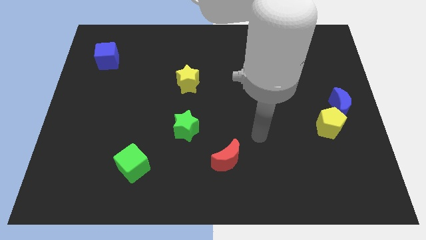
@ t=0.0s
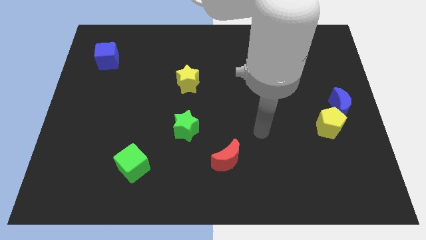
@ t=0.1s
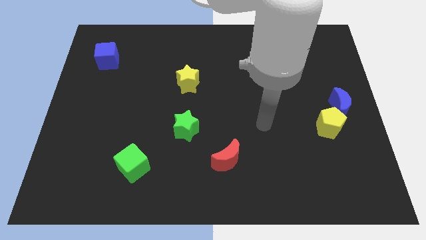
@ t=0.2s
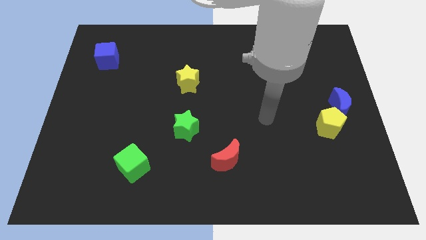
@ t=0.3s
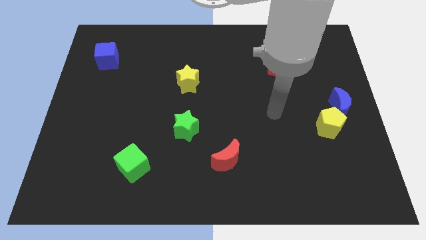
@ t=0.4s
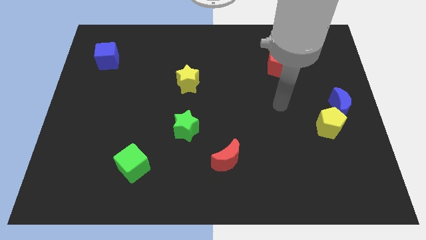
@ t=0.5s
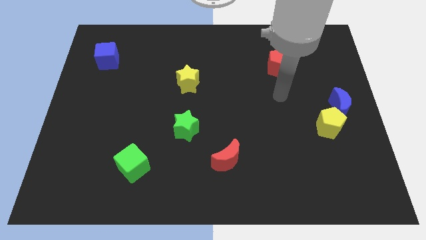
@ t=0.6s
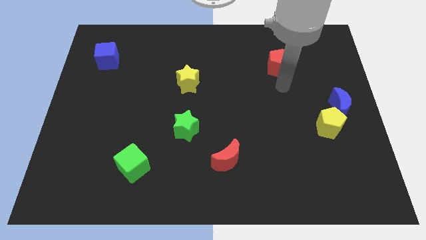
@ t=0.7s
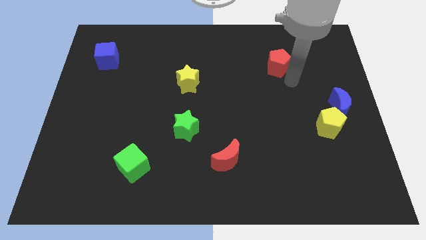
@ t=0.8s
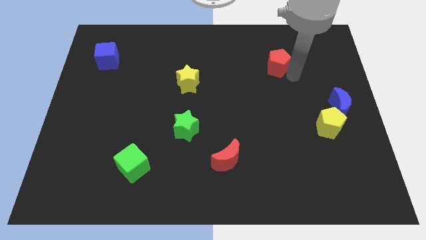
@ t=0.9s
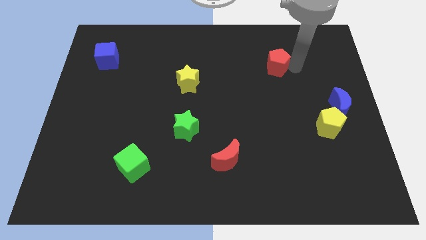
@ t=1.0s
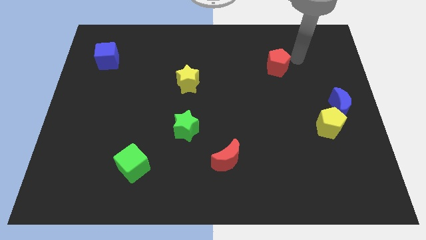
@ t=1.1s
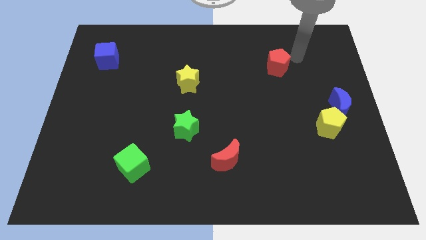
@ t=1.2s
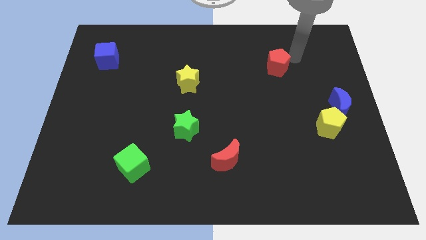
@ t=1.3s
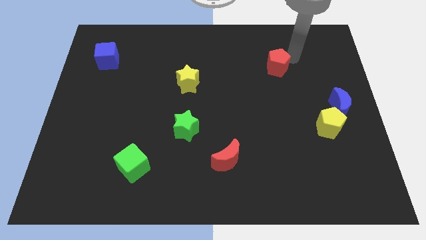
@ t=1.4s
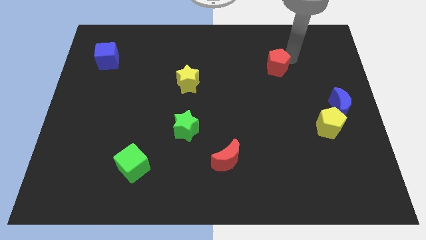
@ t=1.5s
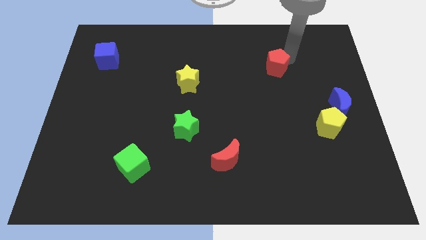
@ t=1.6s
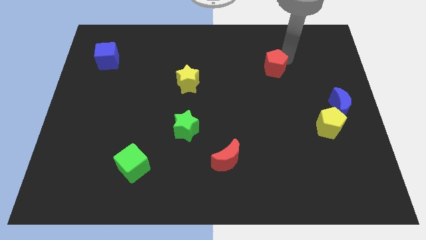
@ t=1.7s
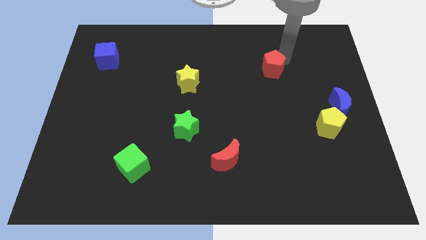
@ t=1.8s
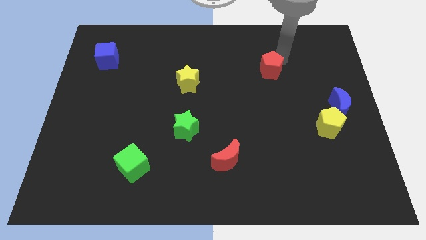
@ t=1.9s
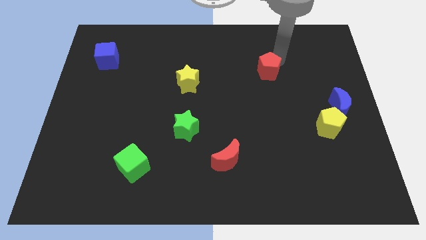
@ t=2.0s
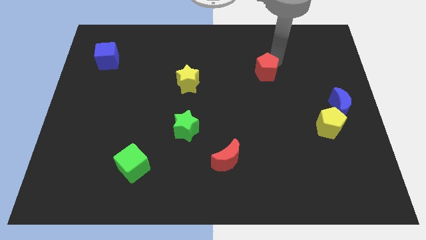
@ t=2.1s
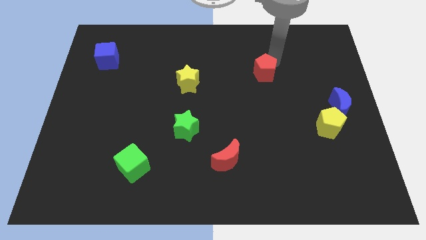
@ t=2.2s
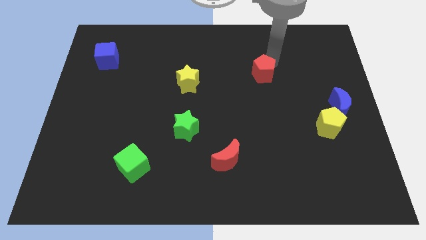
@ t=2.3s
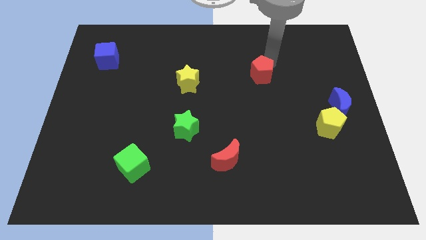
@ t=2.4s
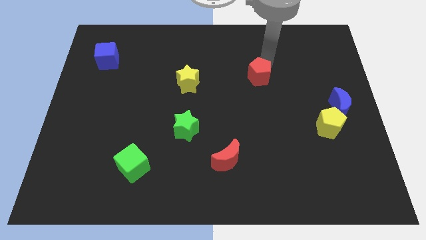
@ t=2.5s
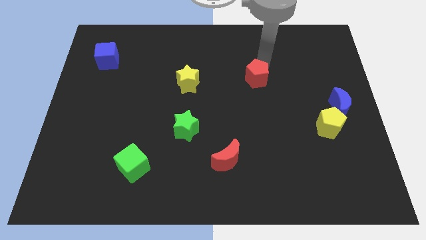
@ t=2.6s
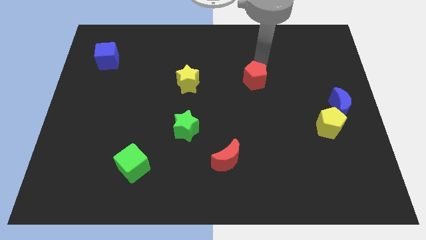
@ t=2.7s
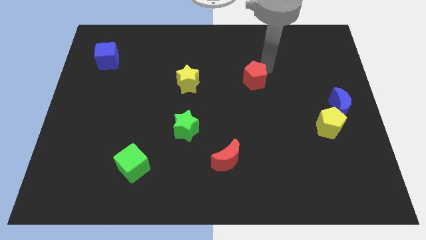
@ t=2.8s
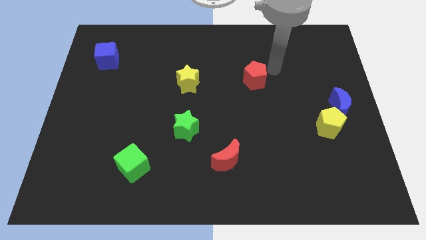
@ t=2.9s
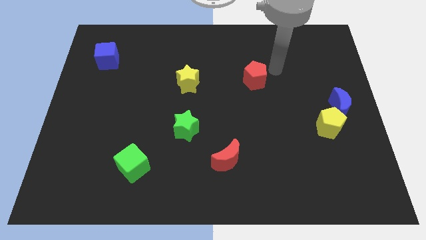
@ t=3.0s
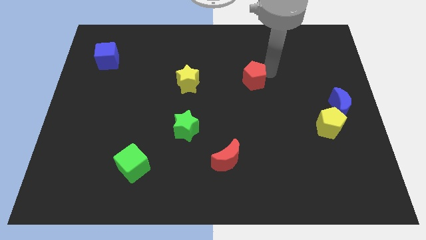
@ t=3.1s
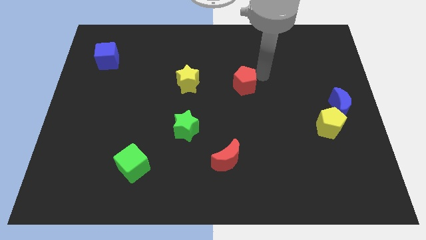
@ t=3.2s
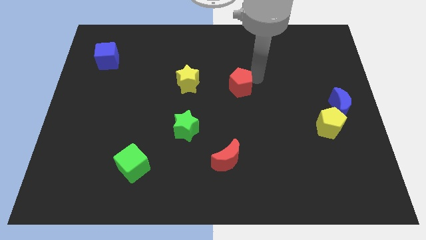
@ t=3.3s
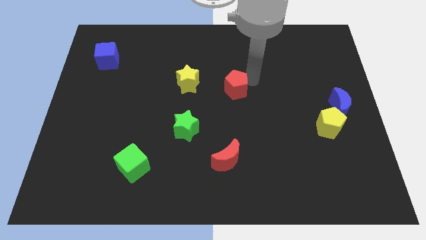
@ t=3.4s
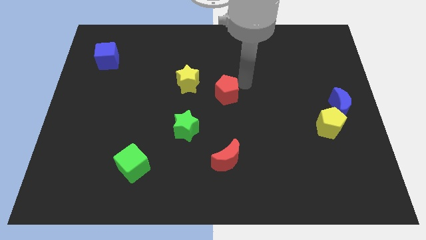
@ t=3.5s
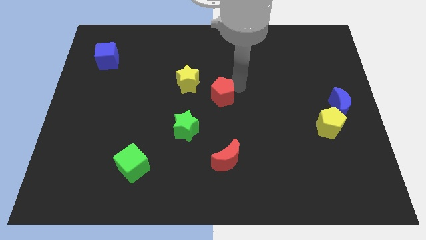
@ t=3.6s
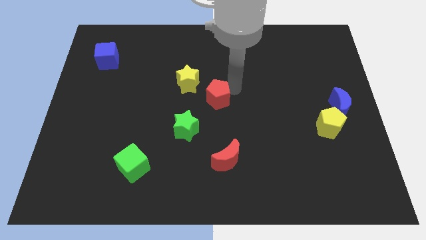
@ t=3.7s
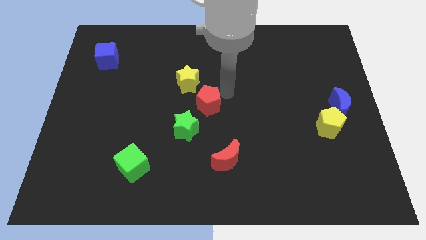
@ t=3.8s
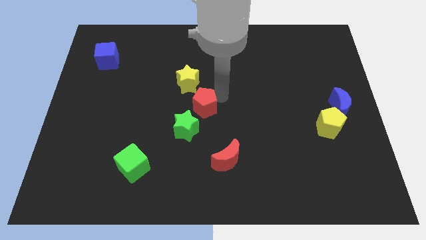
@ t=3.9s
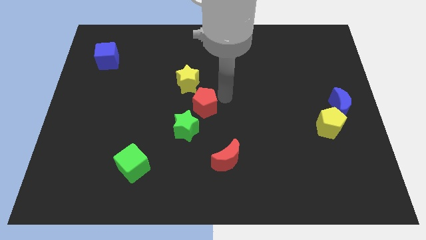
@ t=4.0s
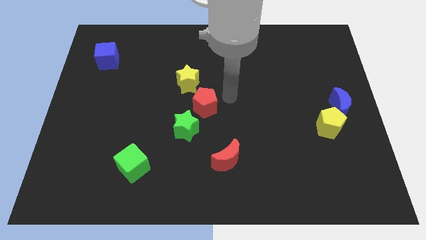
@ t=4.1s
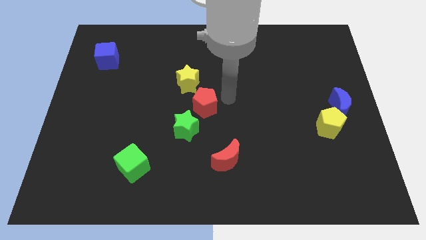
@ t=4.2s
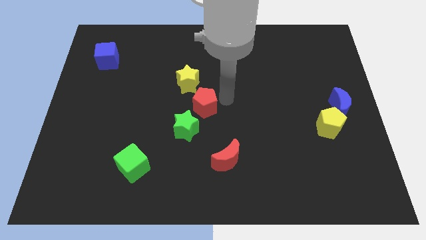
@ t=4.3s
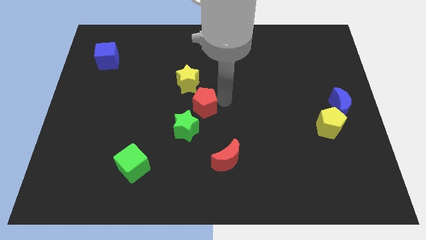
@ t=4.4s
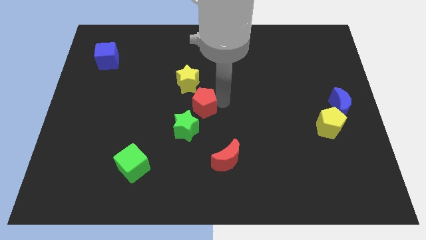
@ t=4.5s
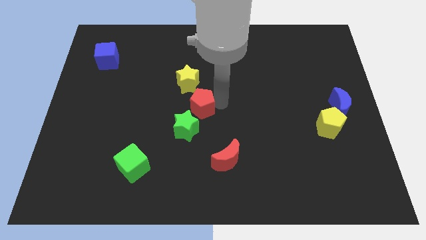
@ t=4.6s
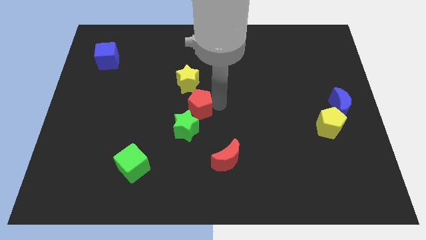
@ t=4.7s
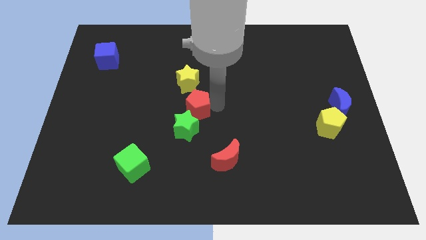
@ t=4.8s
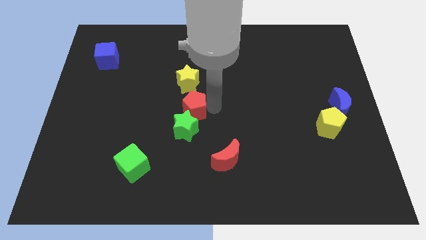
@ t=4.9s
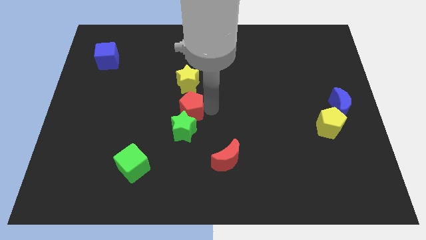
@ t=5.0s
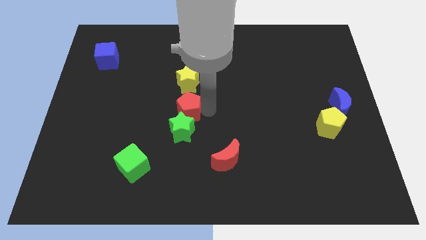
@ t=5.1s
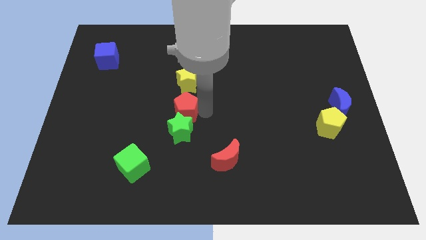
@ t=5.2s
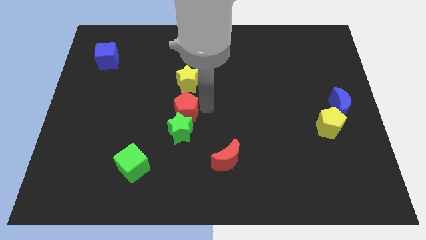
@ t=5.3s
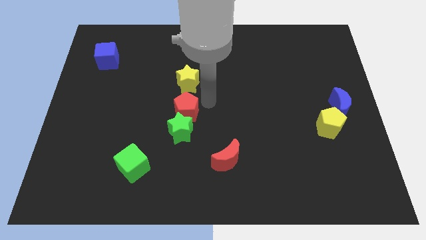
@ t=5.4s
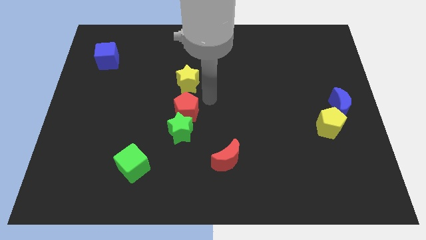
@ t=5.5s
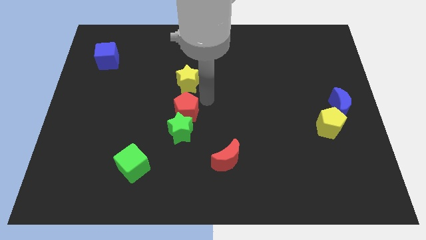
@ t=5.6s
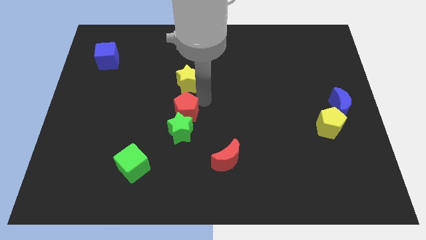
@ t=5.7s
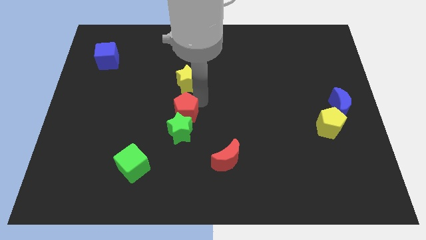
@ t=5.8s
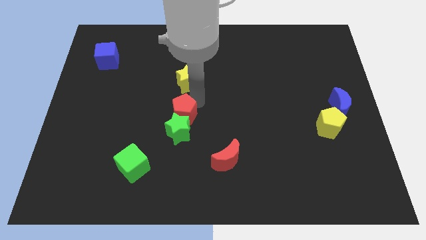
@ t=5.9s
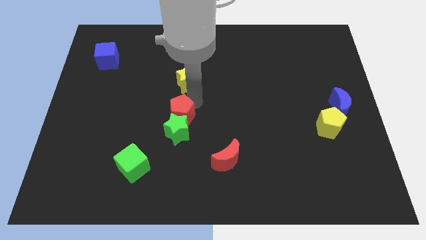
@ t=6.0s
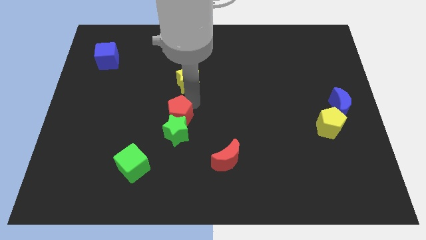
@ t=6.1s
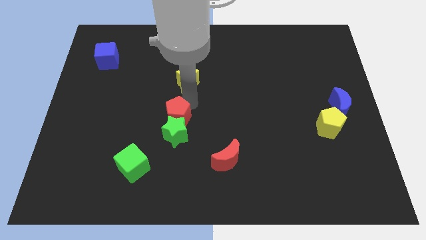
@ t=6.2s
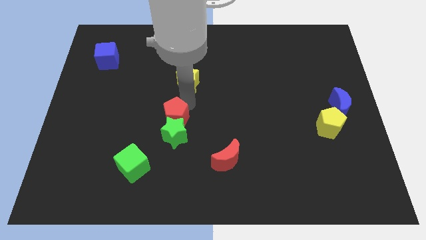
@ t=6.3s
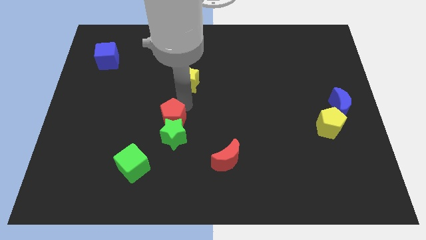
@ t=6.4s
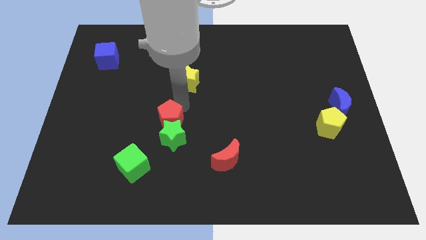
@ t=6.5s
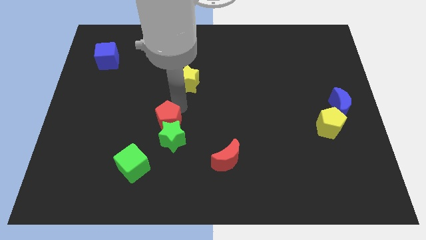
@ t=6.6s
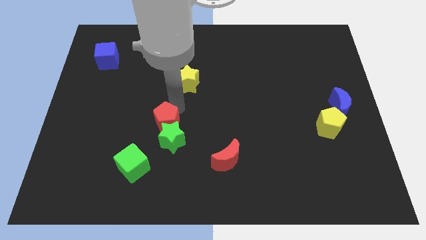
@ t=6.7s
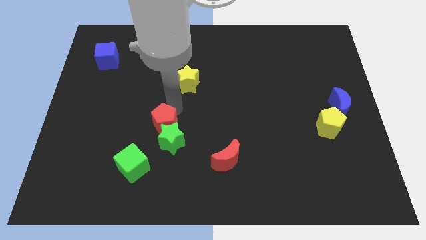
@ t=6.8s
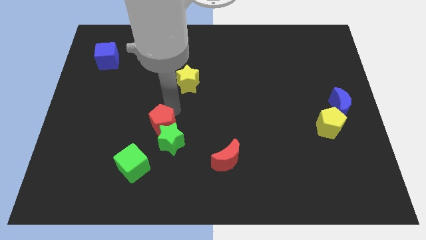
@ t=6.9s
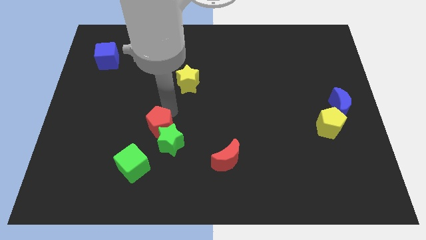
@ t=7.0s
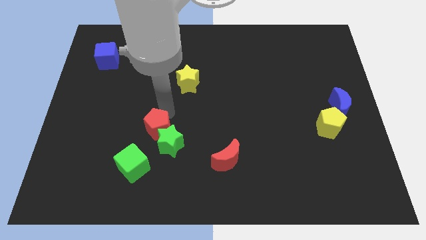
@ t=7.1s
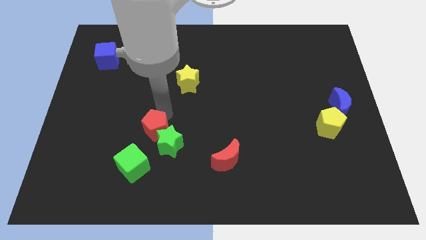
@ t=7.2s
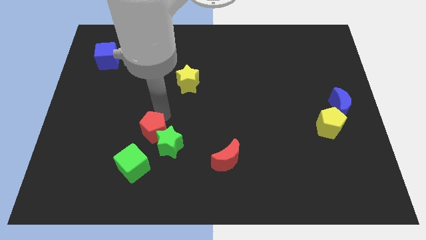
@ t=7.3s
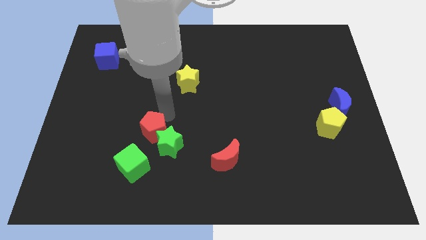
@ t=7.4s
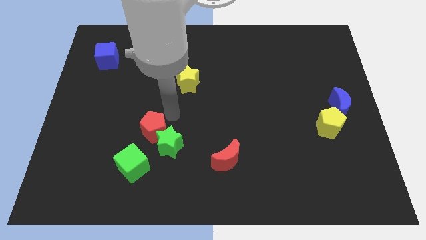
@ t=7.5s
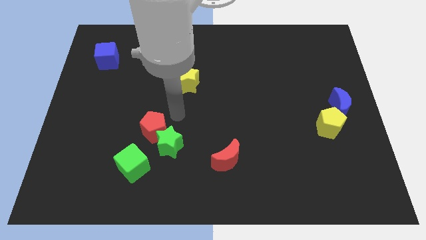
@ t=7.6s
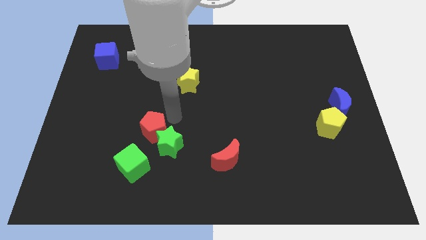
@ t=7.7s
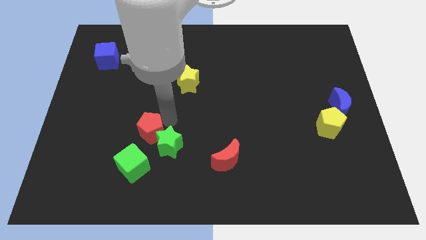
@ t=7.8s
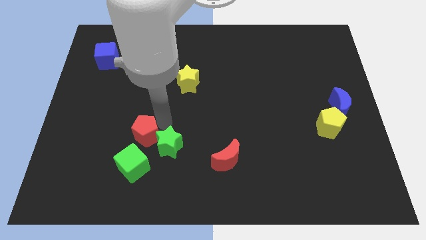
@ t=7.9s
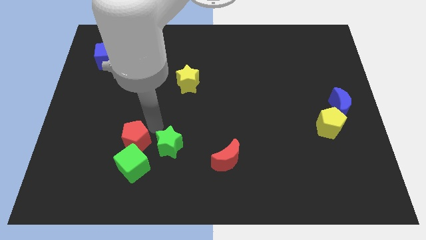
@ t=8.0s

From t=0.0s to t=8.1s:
move the red pentagon next to the green cube
